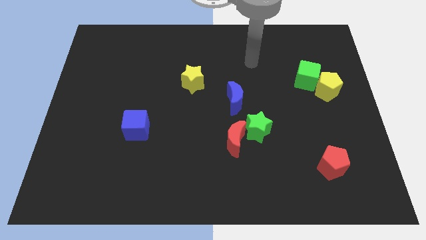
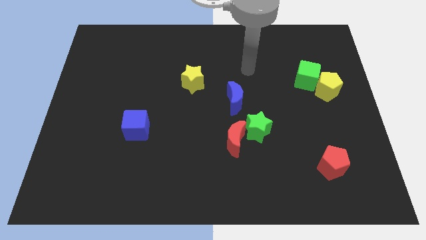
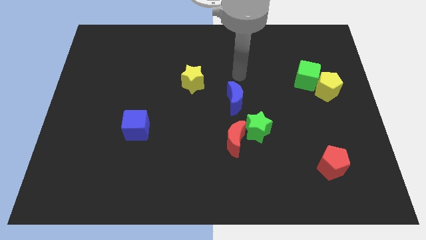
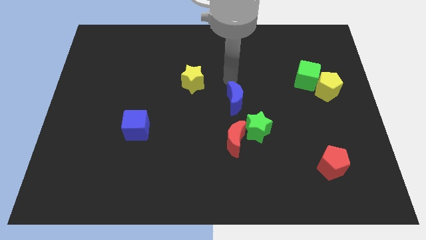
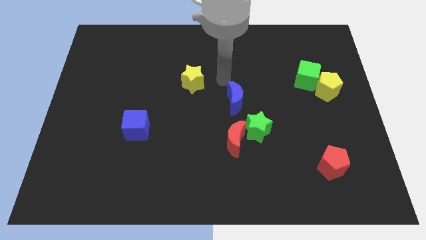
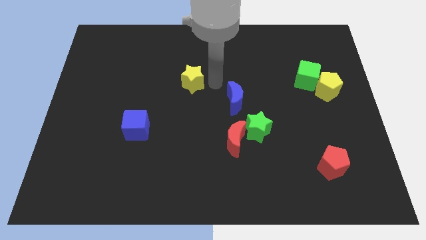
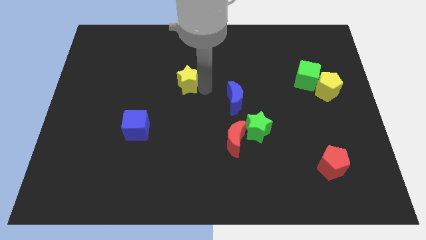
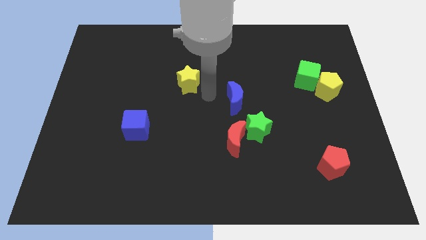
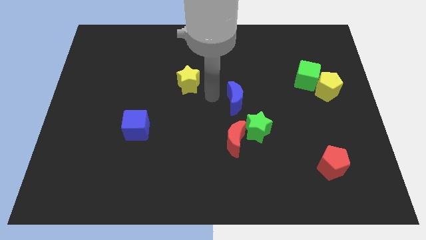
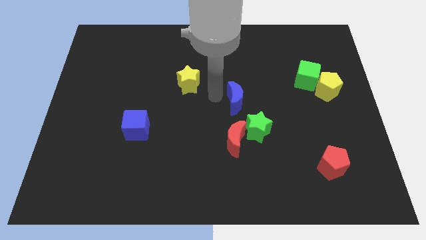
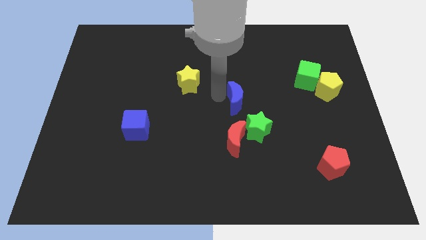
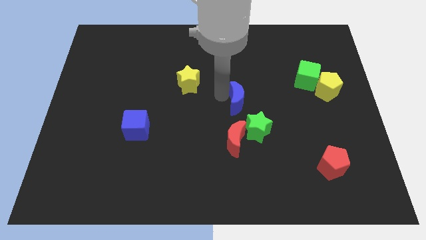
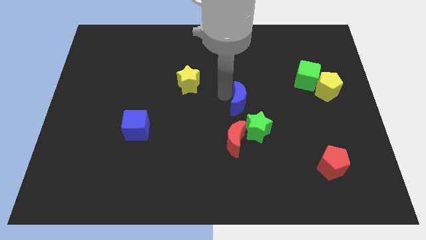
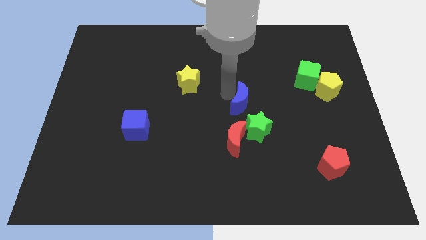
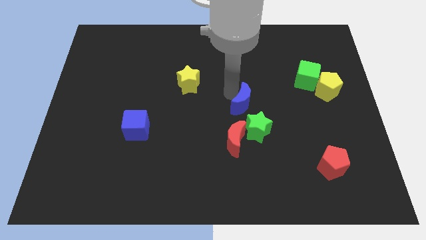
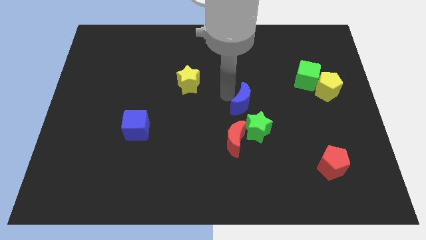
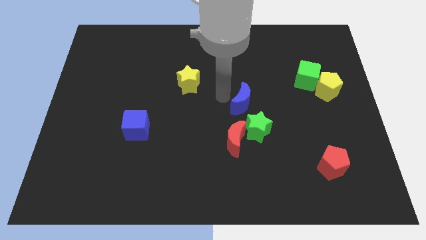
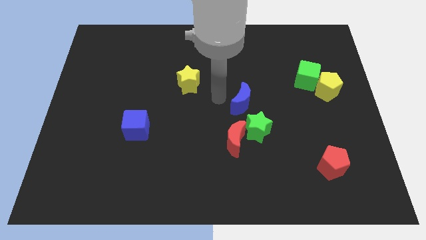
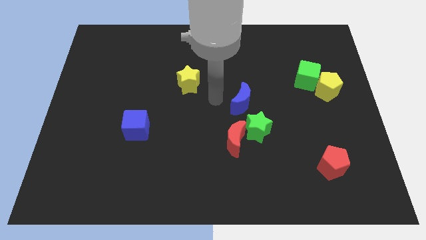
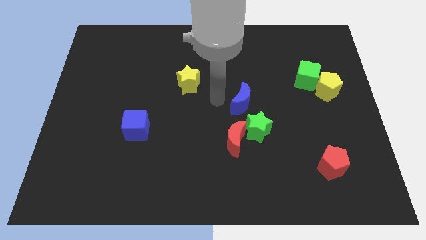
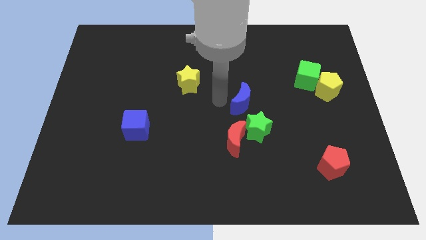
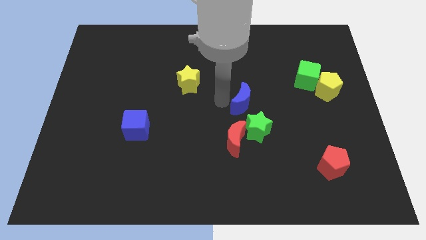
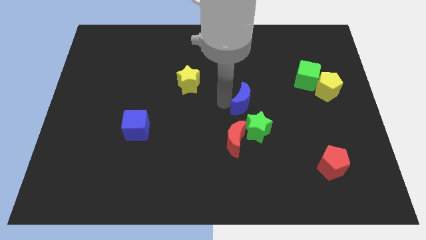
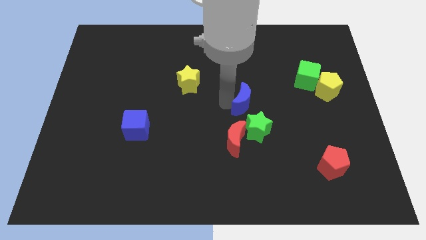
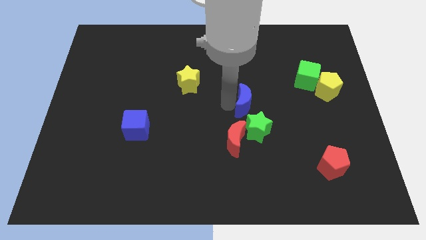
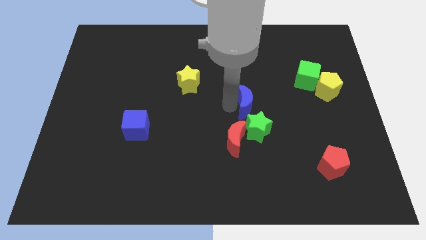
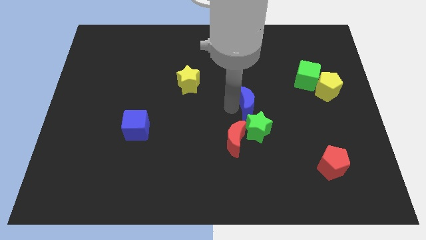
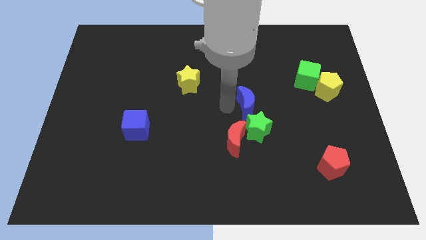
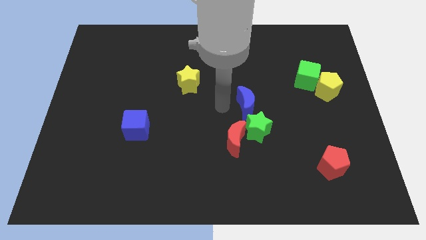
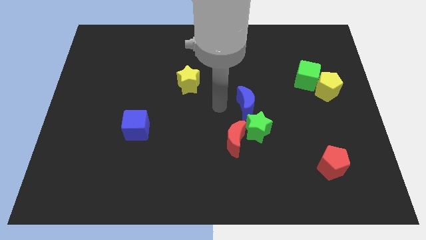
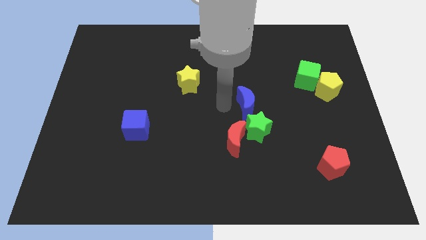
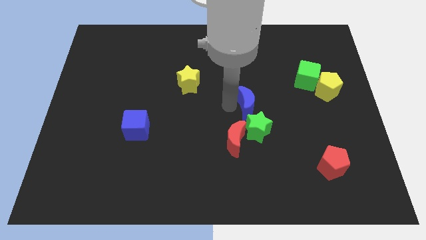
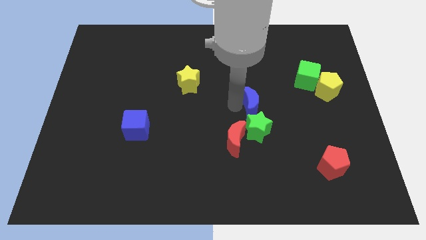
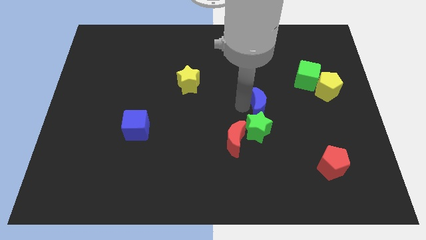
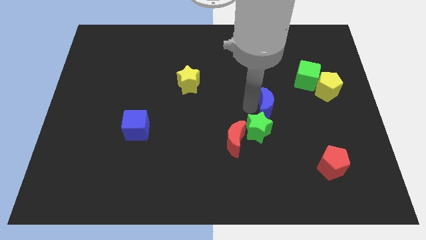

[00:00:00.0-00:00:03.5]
move the blue moon to the right somewhat

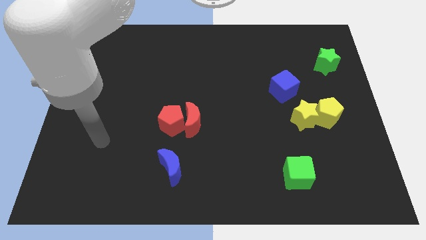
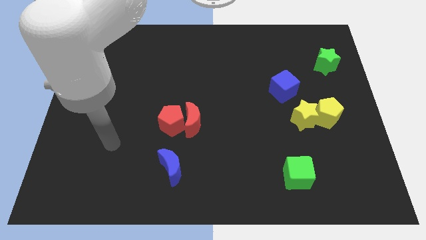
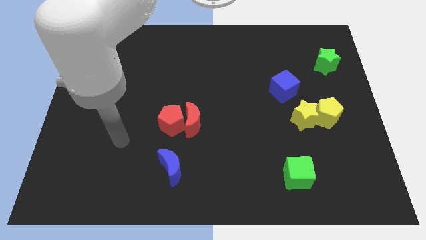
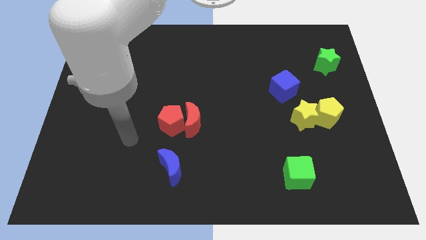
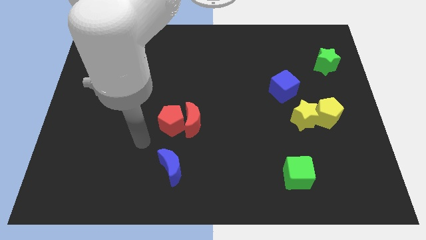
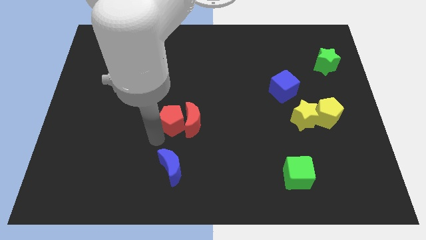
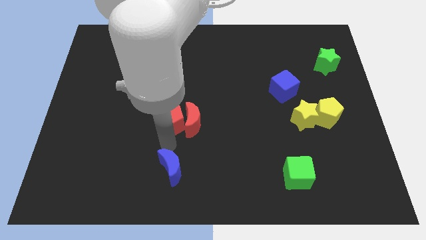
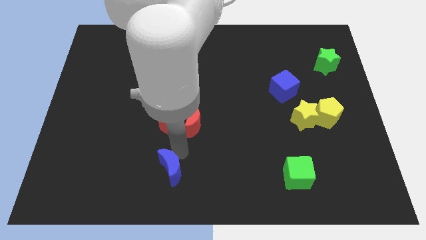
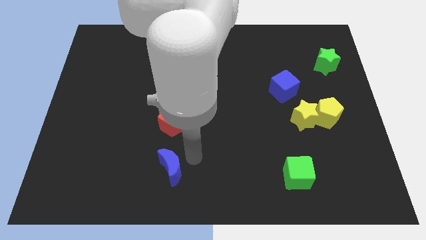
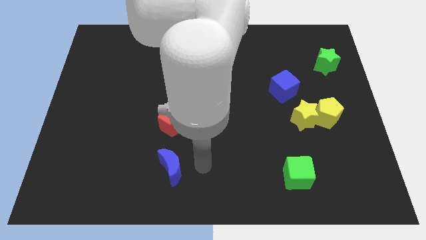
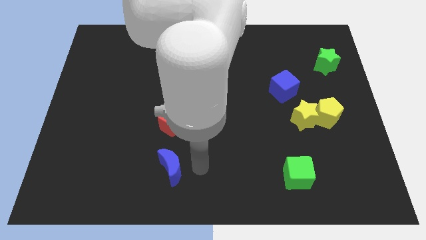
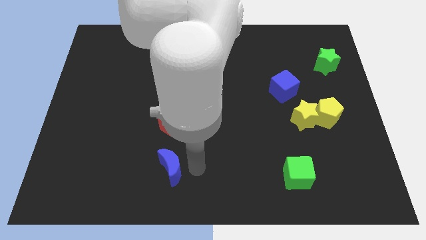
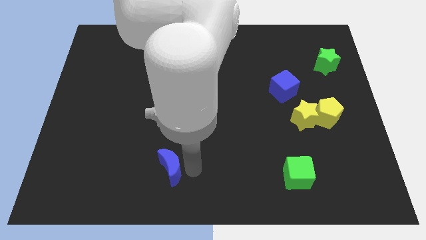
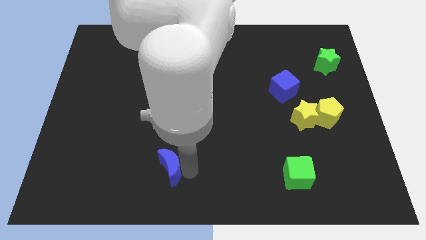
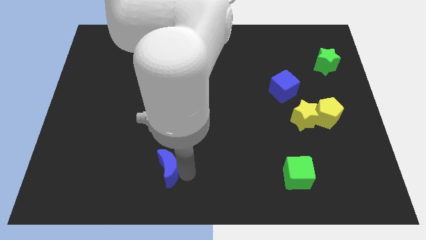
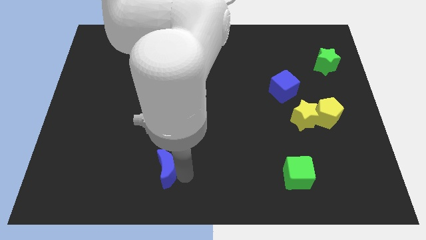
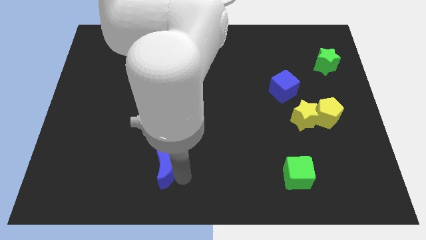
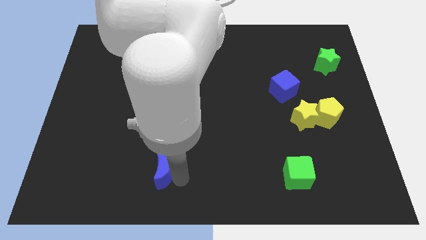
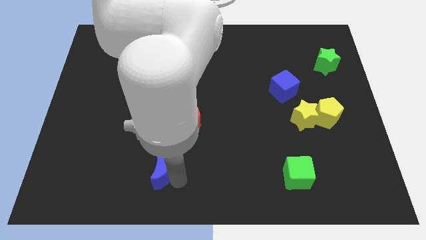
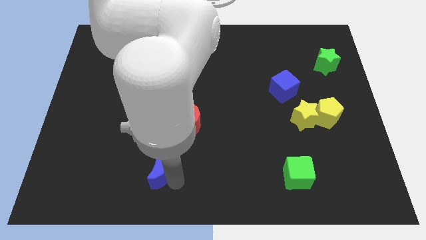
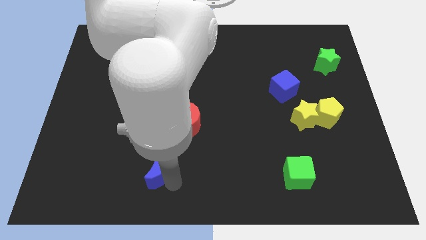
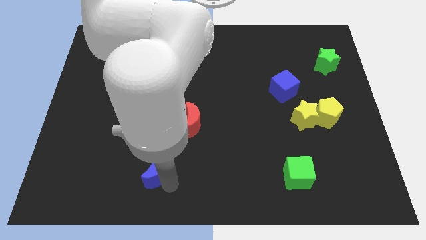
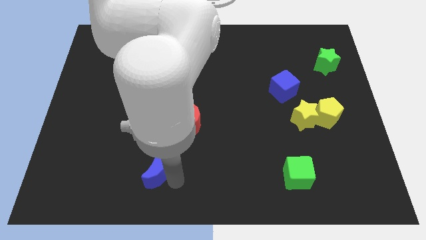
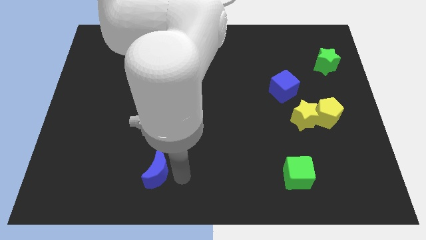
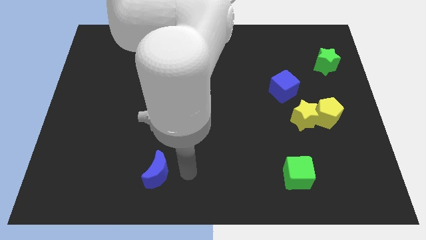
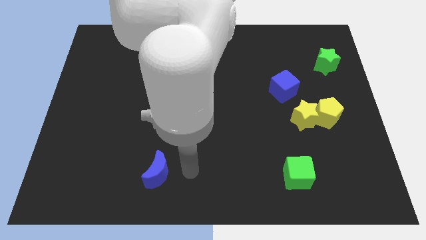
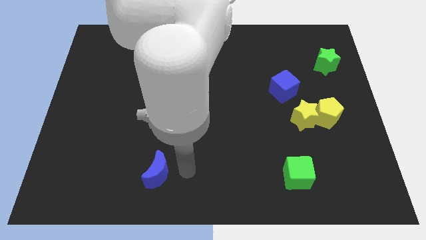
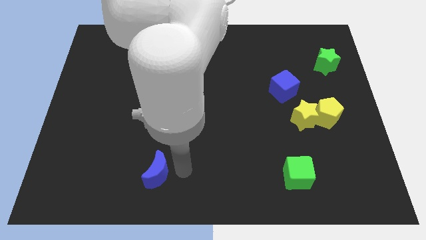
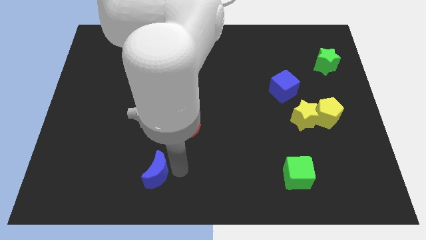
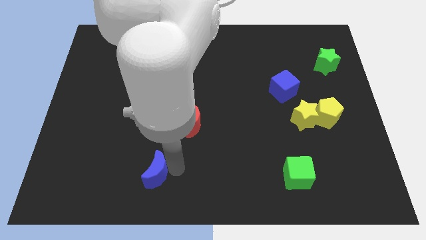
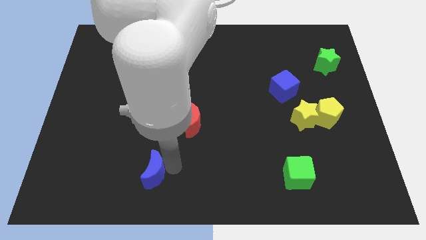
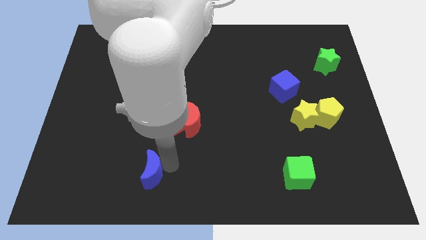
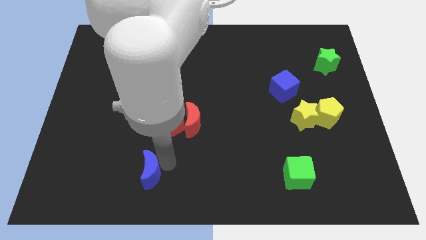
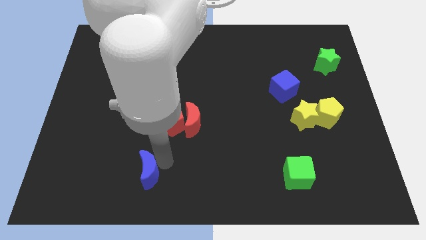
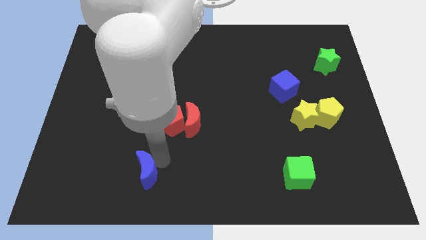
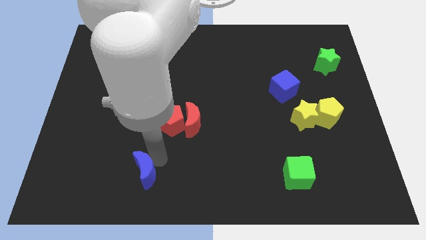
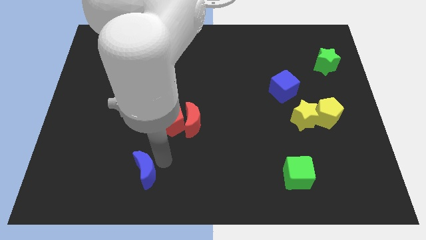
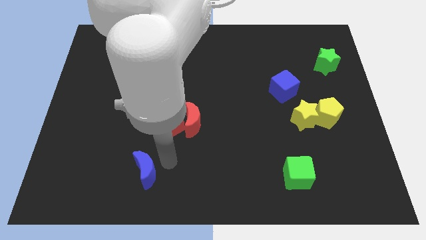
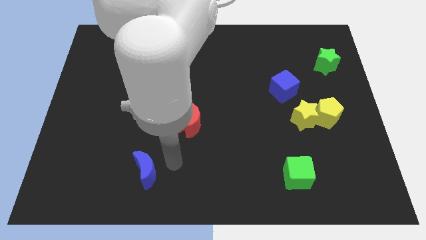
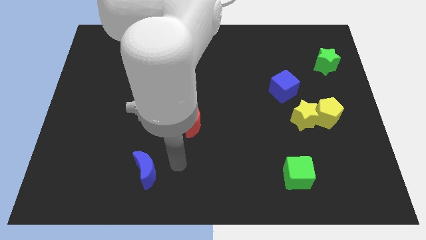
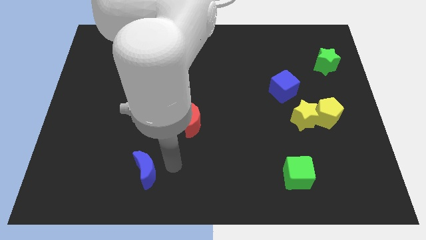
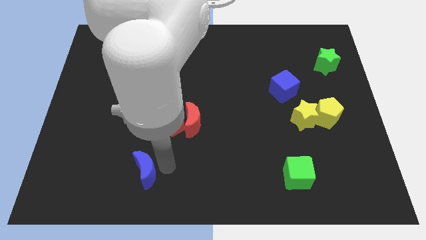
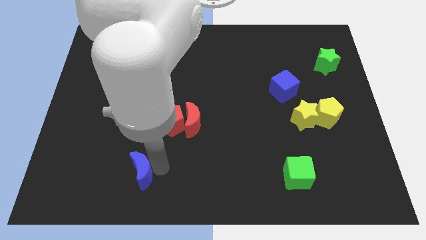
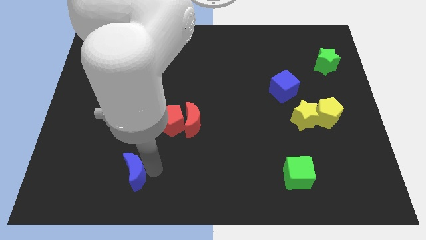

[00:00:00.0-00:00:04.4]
slide the blue moon left a little bit

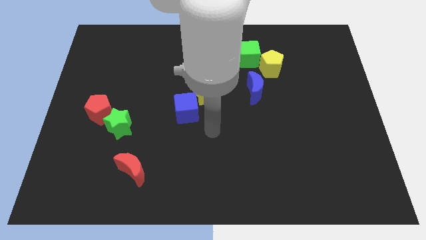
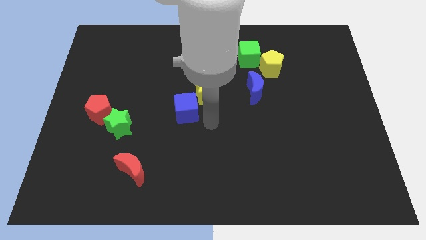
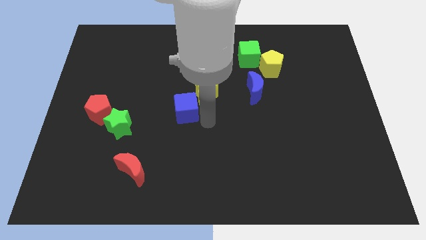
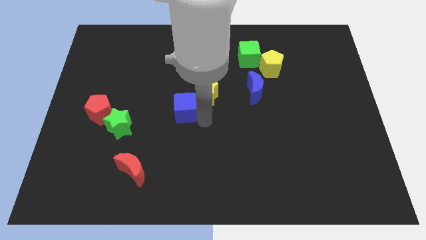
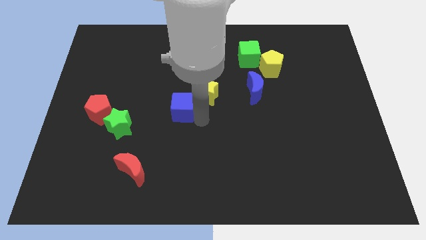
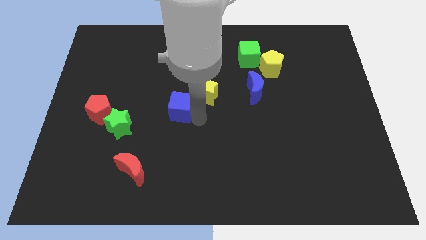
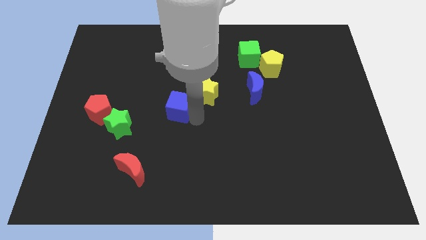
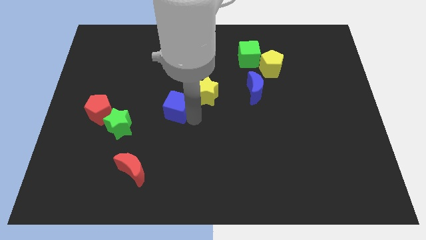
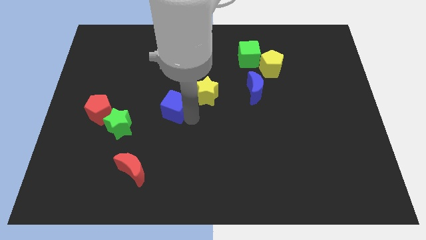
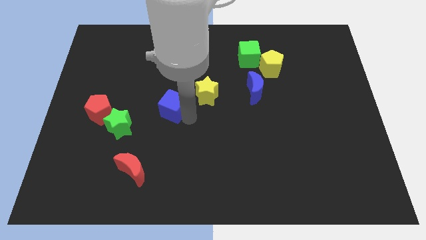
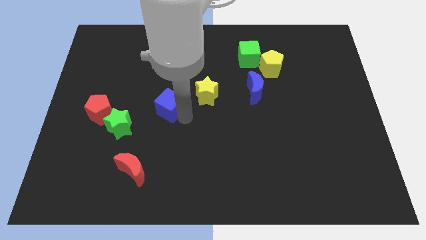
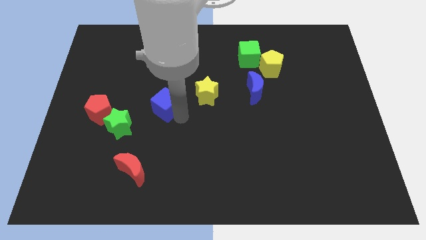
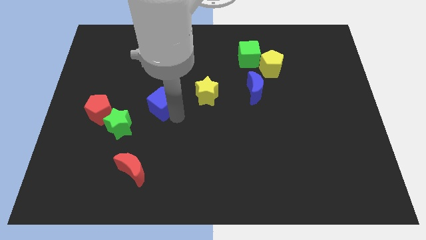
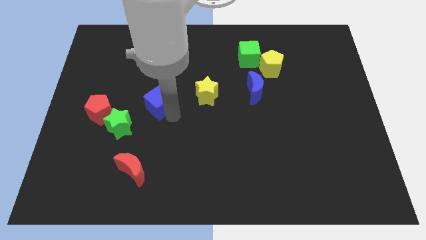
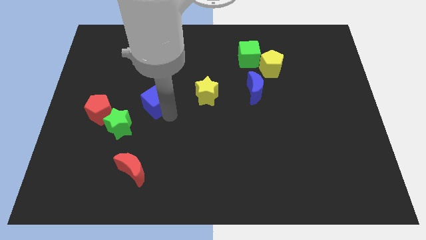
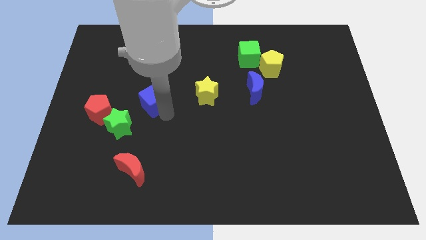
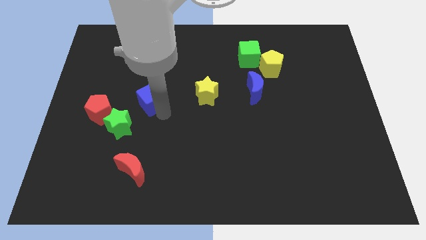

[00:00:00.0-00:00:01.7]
slide the blue cube somewhat upwards and to the left diagonally
